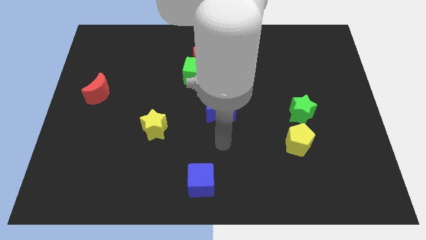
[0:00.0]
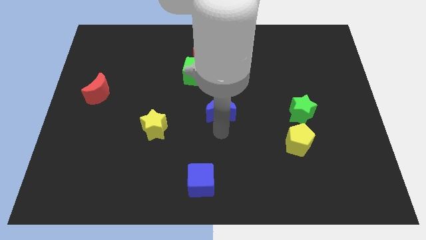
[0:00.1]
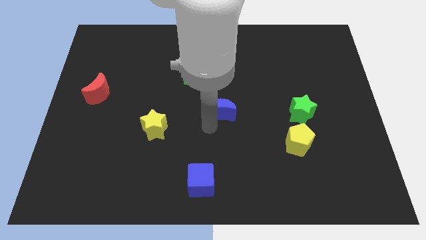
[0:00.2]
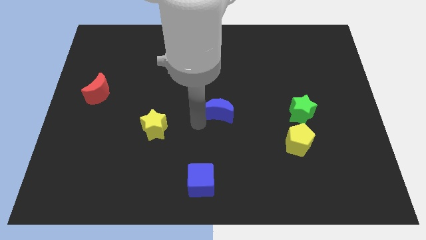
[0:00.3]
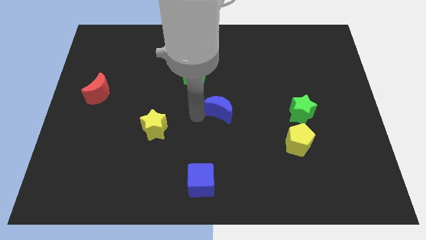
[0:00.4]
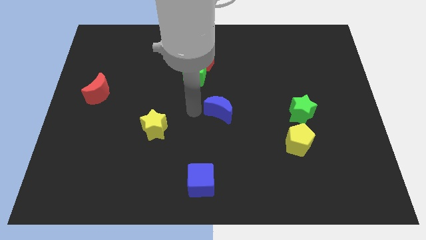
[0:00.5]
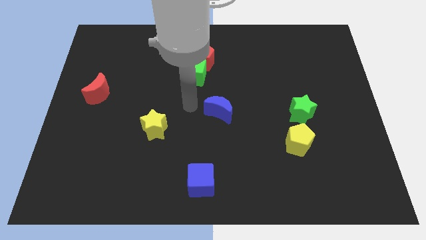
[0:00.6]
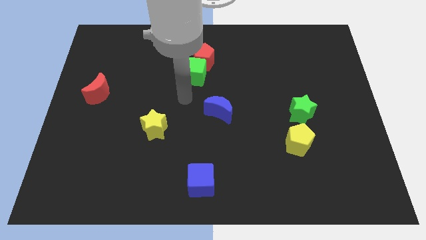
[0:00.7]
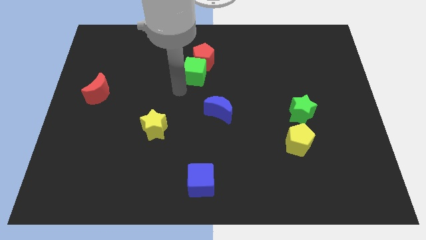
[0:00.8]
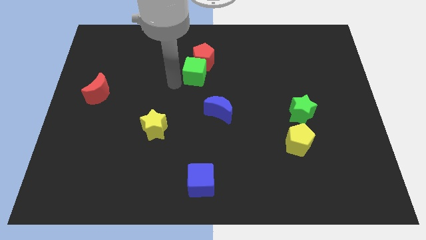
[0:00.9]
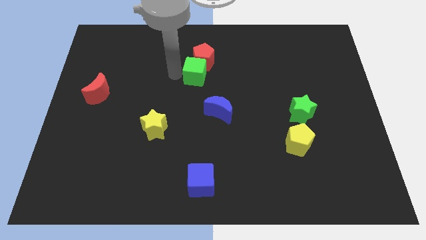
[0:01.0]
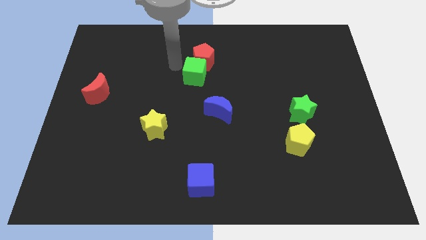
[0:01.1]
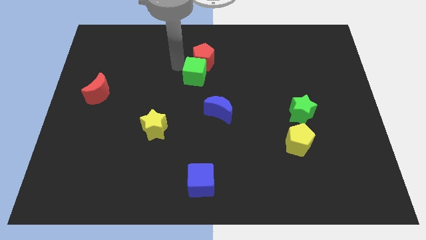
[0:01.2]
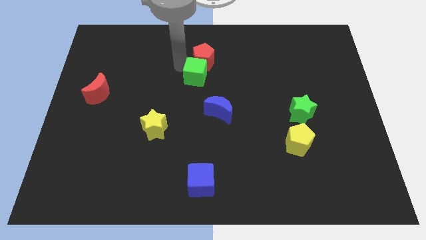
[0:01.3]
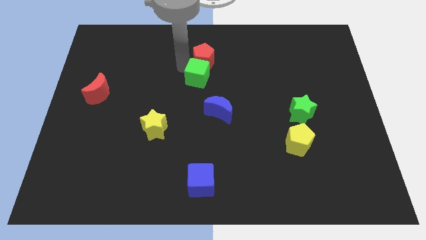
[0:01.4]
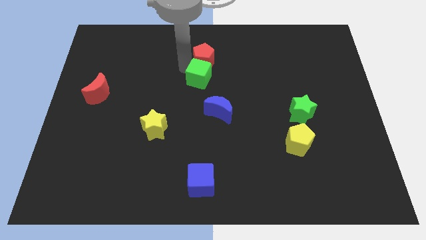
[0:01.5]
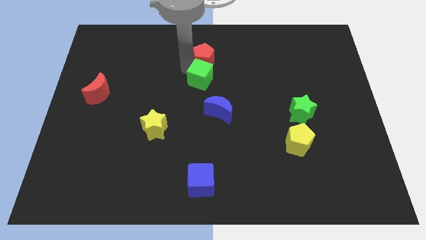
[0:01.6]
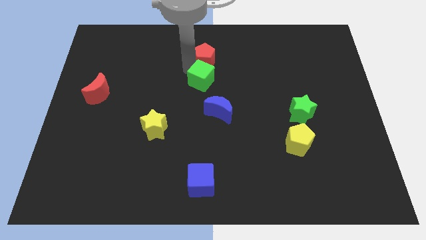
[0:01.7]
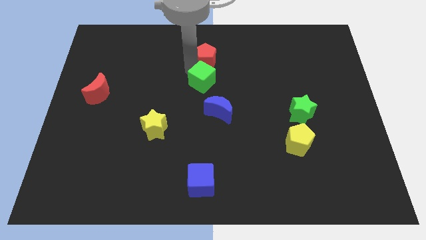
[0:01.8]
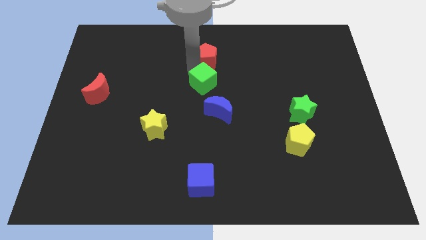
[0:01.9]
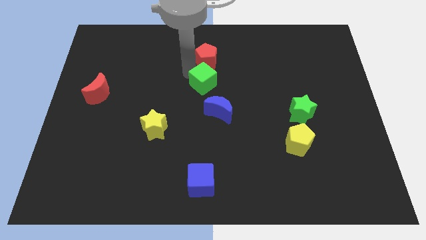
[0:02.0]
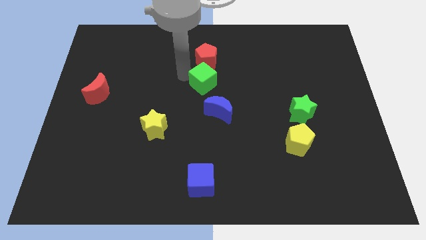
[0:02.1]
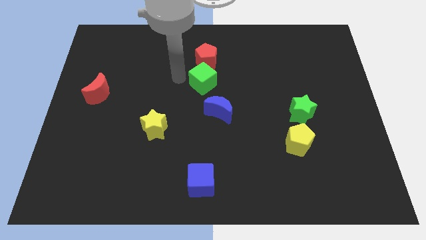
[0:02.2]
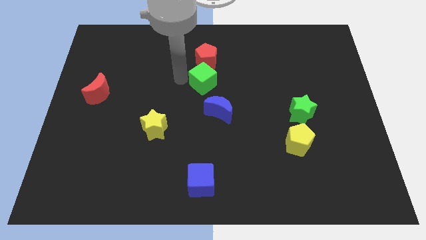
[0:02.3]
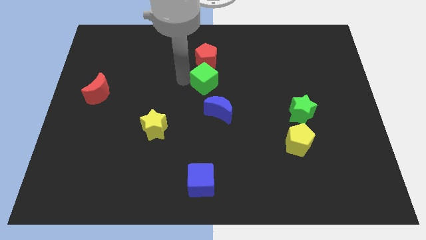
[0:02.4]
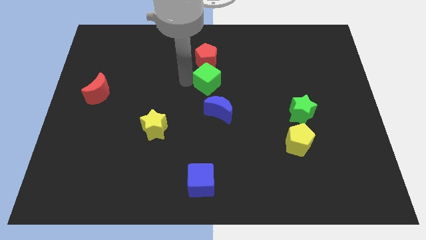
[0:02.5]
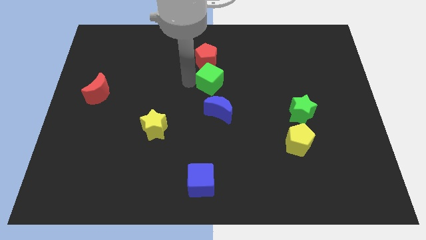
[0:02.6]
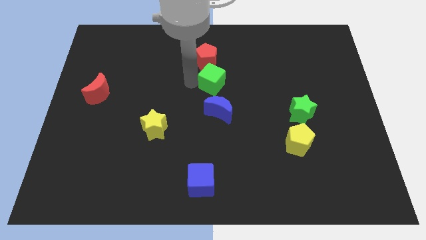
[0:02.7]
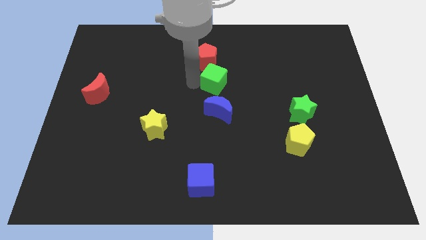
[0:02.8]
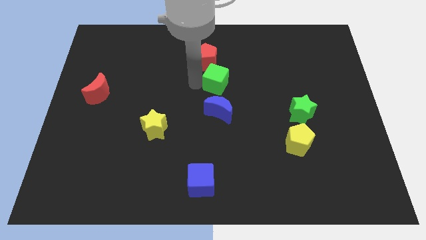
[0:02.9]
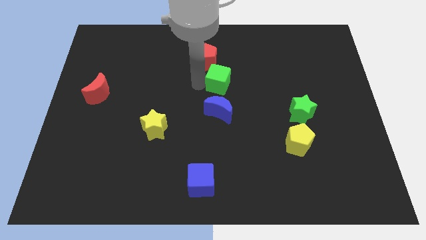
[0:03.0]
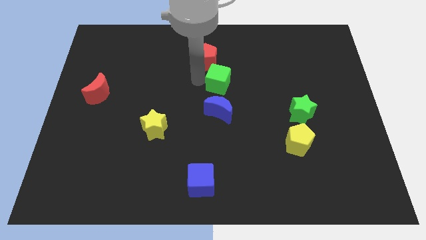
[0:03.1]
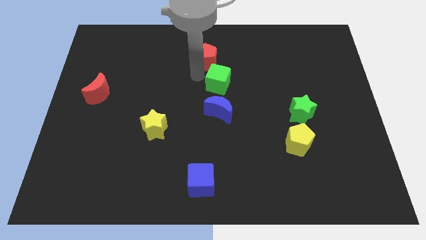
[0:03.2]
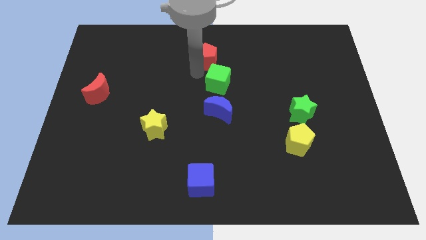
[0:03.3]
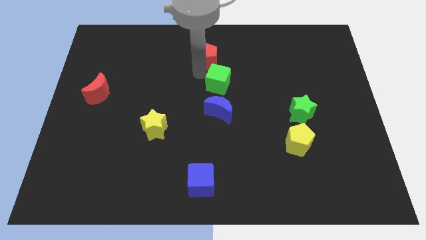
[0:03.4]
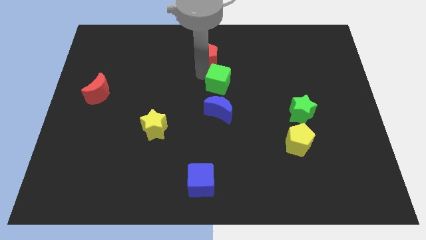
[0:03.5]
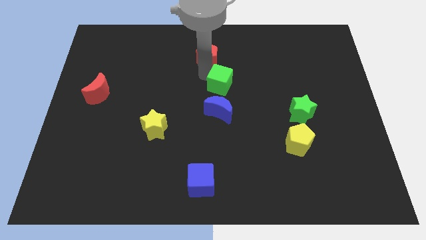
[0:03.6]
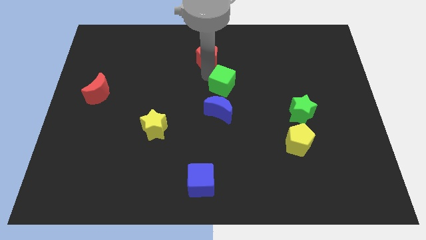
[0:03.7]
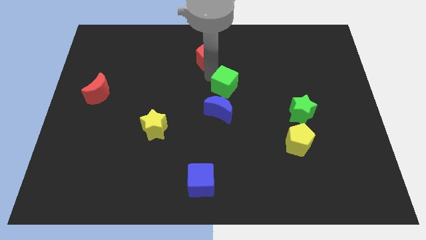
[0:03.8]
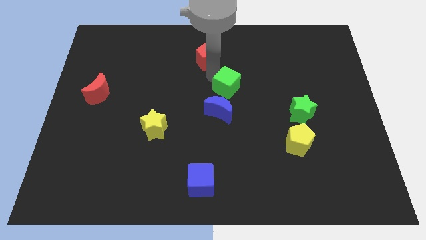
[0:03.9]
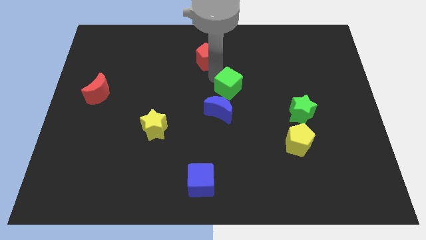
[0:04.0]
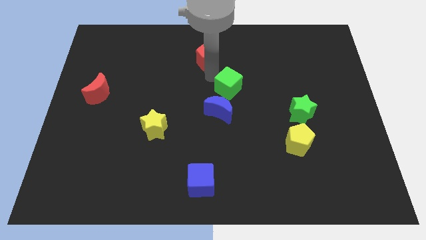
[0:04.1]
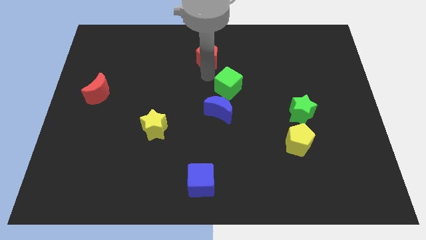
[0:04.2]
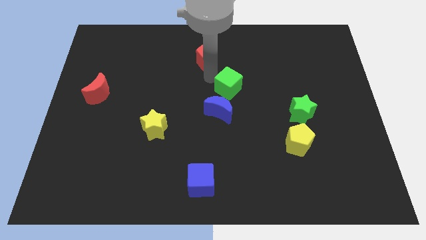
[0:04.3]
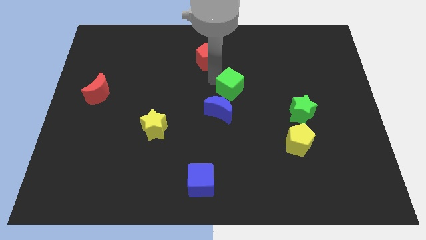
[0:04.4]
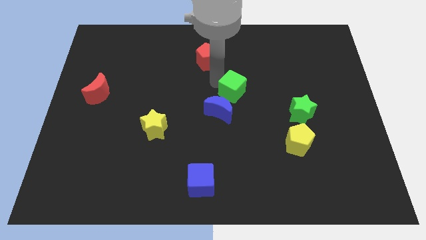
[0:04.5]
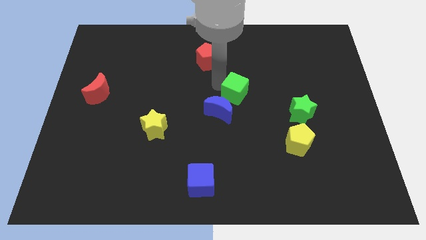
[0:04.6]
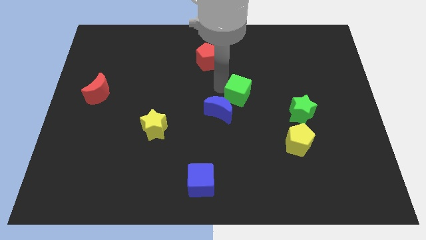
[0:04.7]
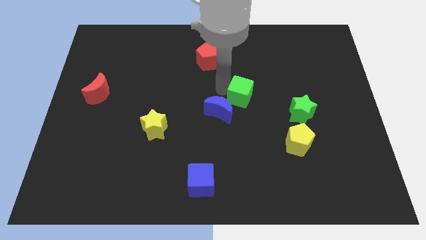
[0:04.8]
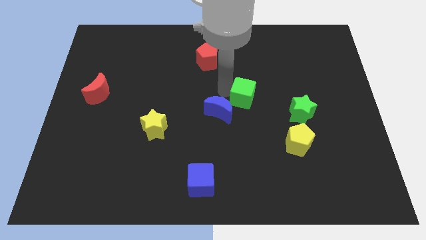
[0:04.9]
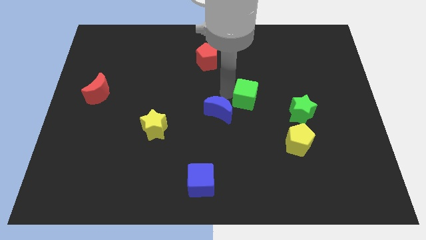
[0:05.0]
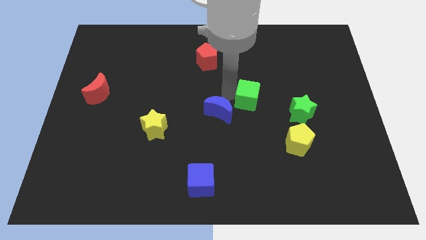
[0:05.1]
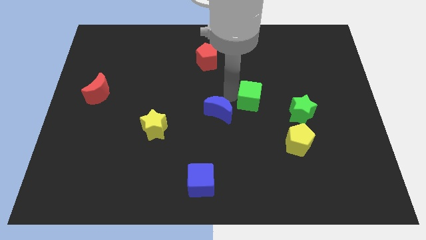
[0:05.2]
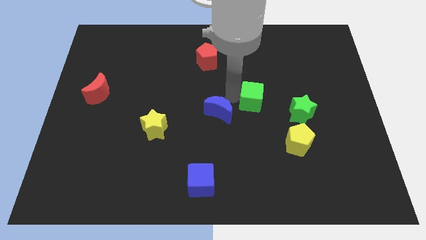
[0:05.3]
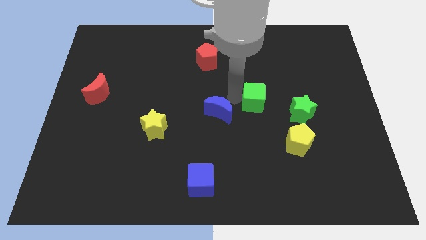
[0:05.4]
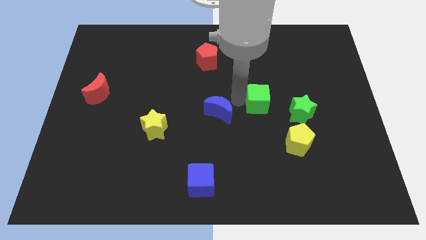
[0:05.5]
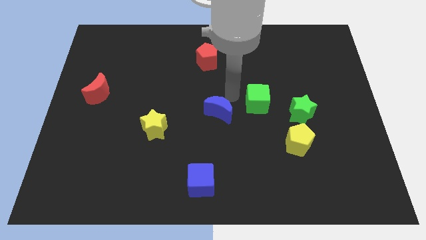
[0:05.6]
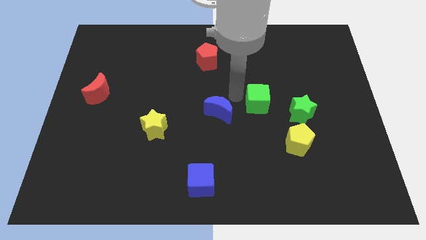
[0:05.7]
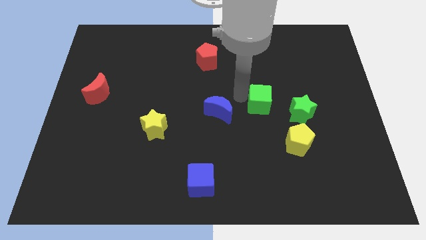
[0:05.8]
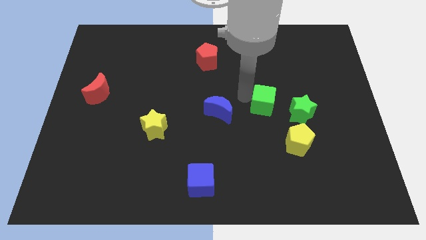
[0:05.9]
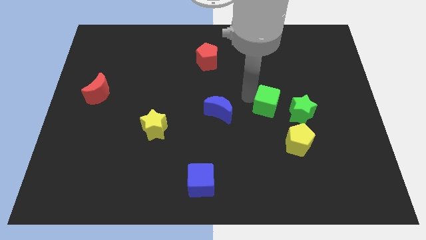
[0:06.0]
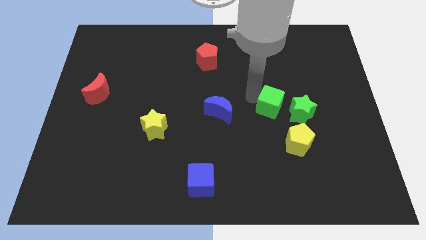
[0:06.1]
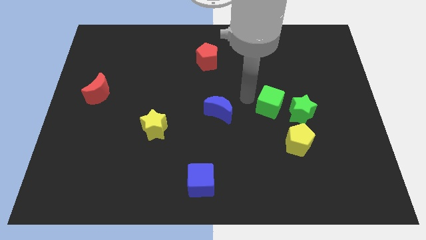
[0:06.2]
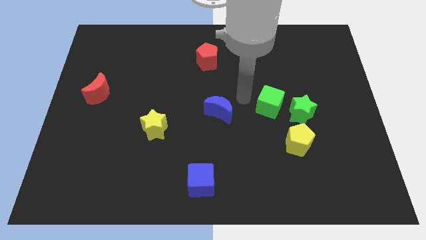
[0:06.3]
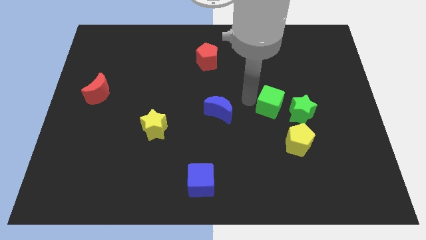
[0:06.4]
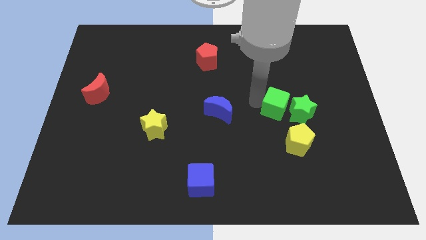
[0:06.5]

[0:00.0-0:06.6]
slide the green cube close to the green star

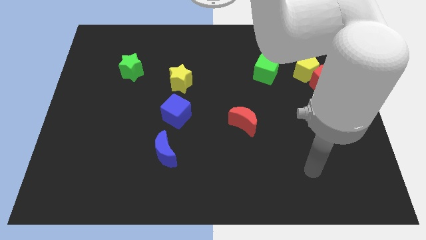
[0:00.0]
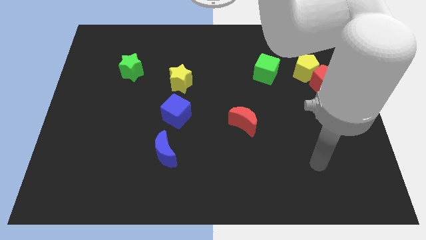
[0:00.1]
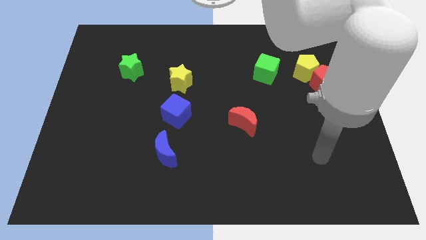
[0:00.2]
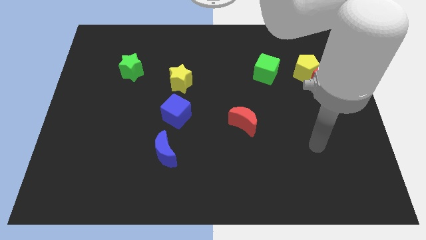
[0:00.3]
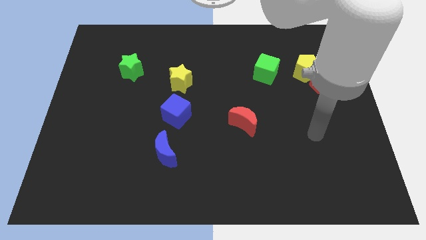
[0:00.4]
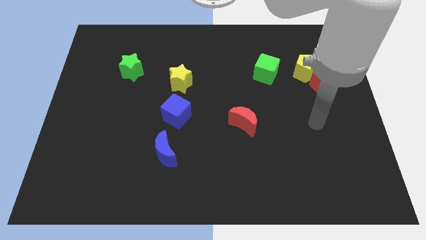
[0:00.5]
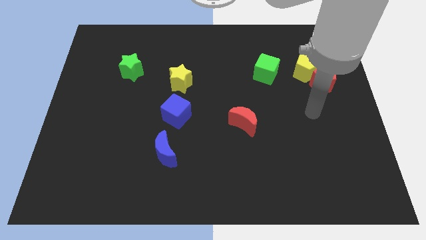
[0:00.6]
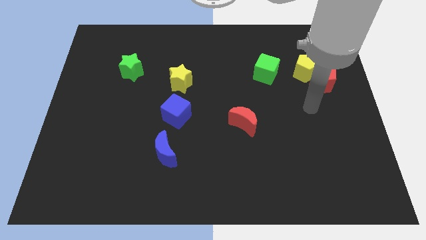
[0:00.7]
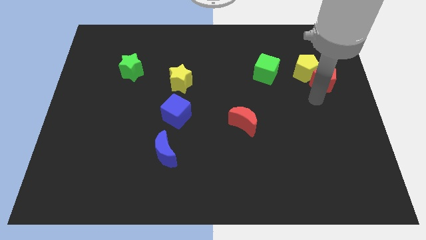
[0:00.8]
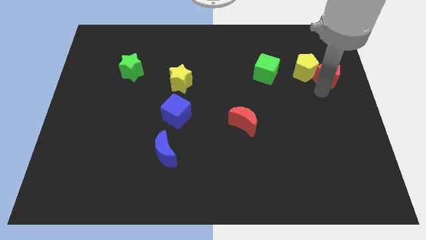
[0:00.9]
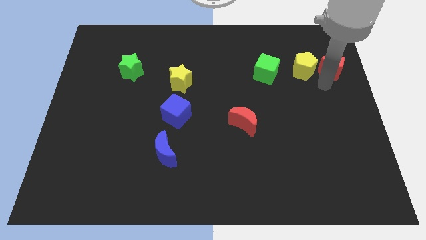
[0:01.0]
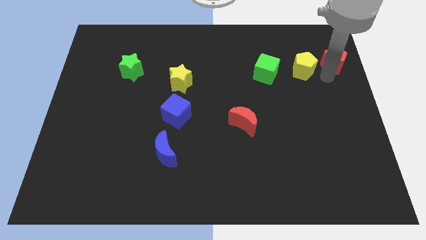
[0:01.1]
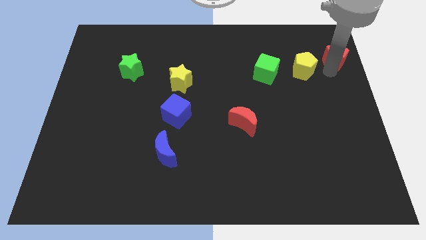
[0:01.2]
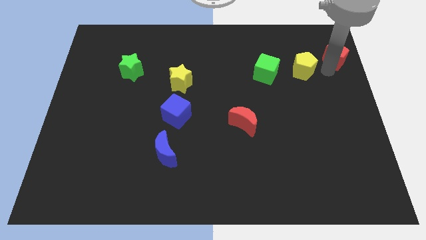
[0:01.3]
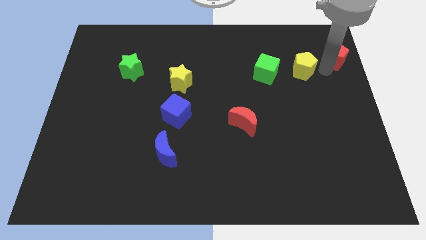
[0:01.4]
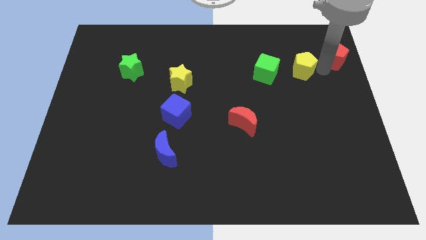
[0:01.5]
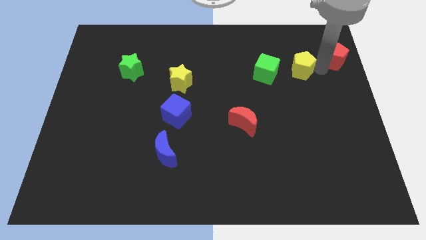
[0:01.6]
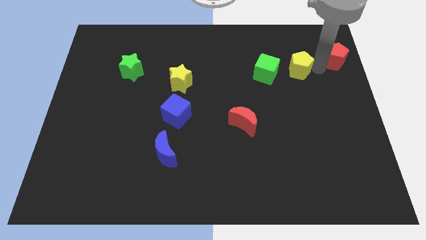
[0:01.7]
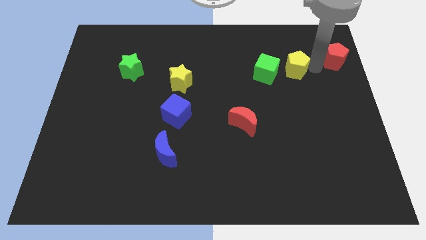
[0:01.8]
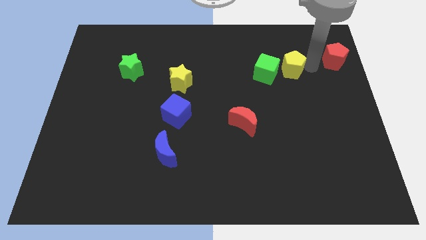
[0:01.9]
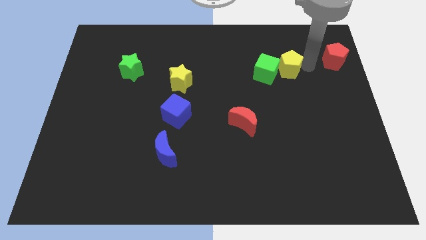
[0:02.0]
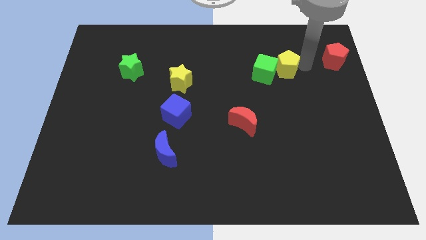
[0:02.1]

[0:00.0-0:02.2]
slide the yellow pentagon to the green cube
